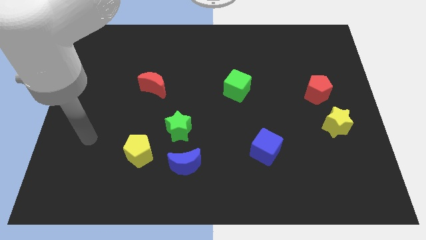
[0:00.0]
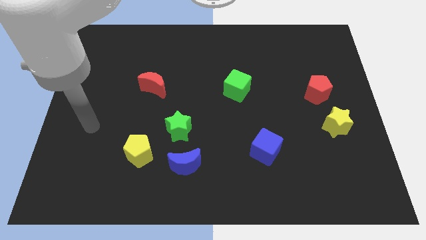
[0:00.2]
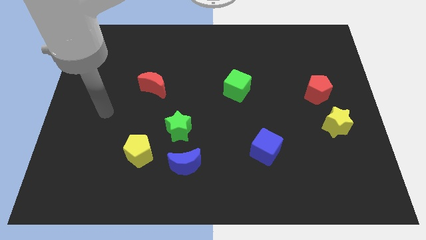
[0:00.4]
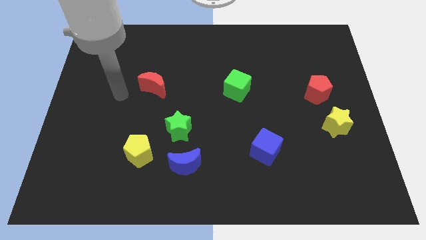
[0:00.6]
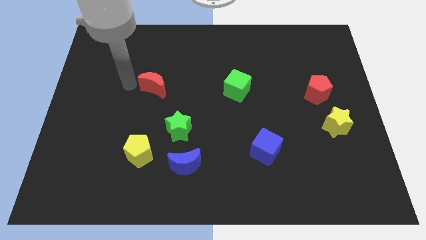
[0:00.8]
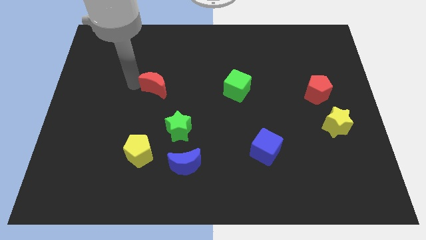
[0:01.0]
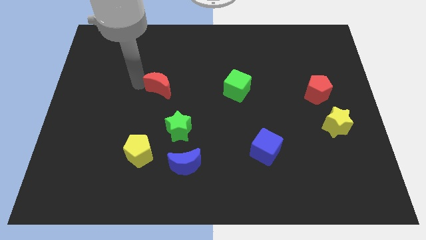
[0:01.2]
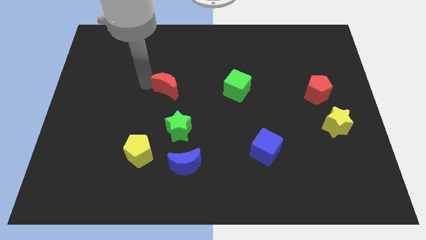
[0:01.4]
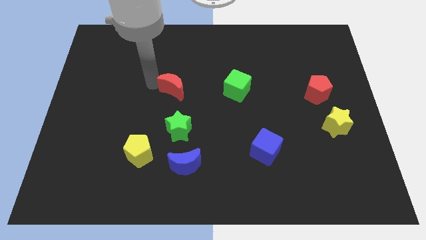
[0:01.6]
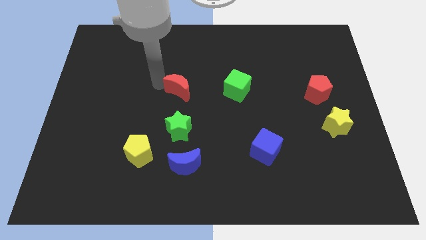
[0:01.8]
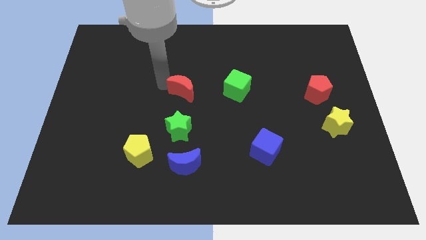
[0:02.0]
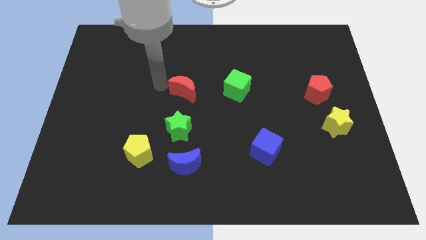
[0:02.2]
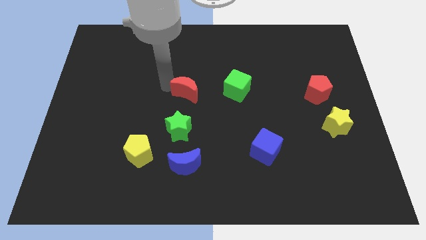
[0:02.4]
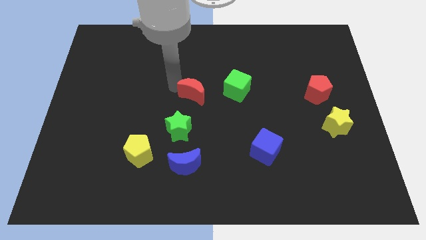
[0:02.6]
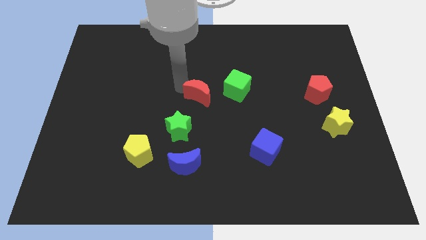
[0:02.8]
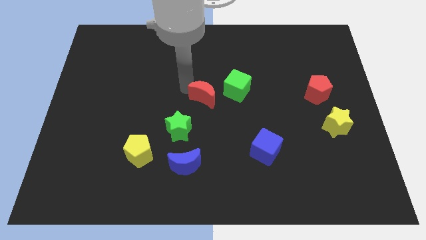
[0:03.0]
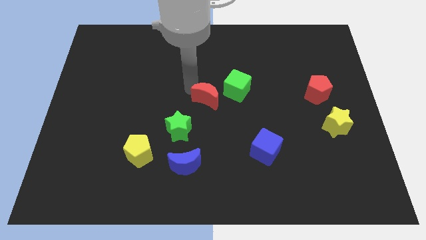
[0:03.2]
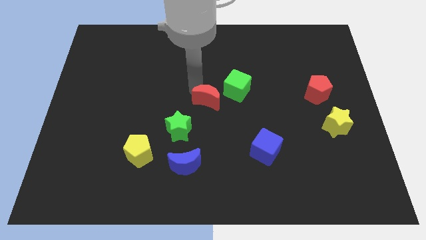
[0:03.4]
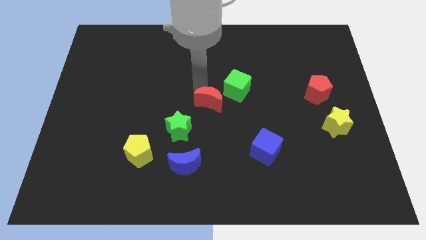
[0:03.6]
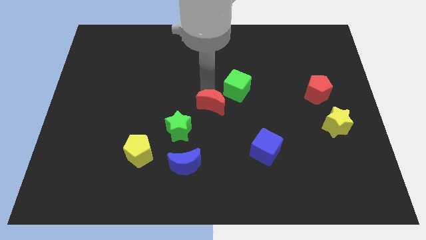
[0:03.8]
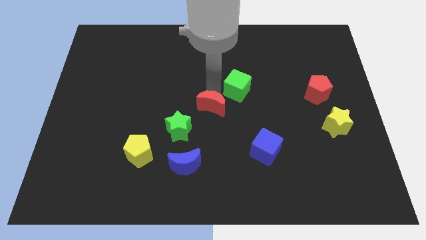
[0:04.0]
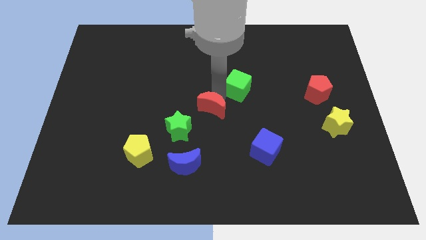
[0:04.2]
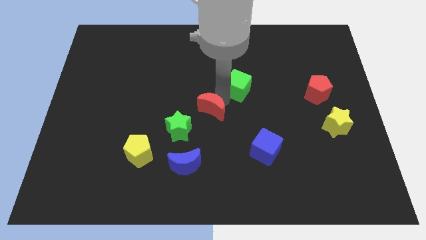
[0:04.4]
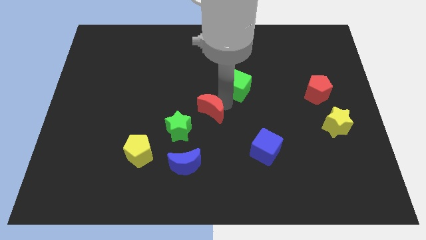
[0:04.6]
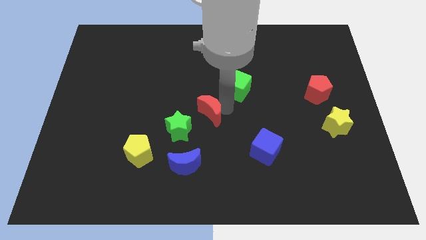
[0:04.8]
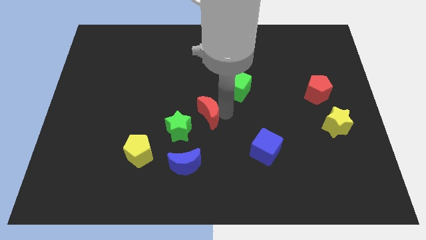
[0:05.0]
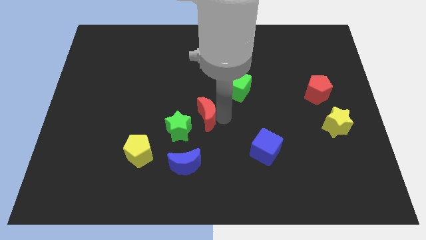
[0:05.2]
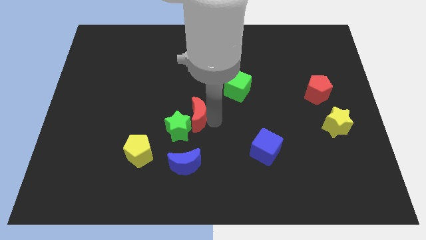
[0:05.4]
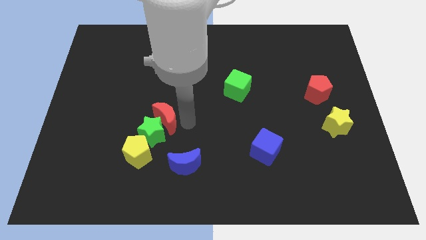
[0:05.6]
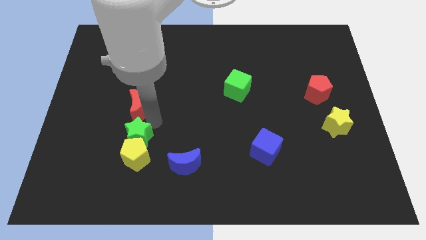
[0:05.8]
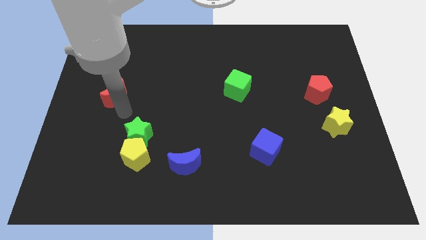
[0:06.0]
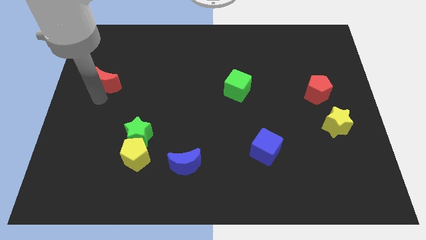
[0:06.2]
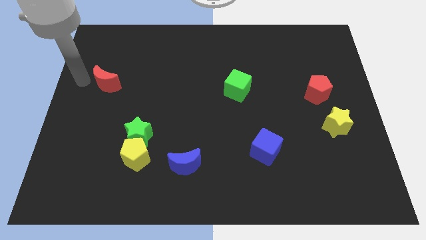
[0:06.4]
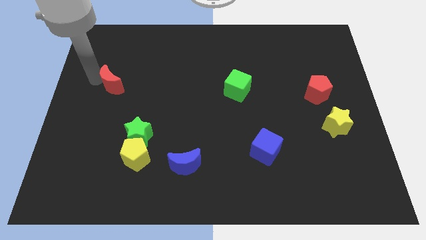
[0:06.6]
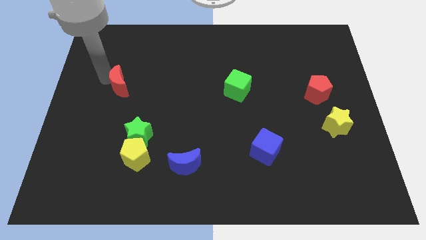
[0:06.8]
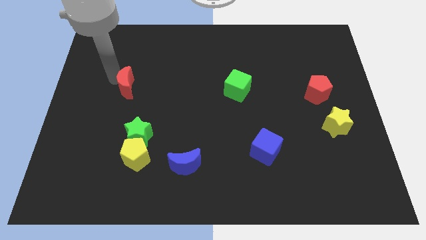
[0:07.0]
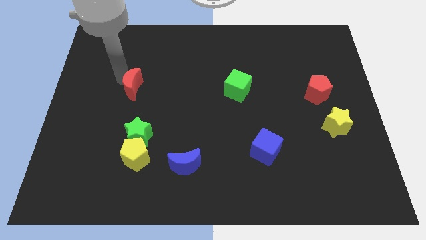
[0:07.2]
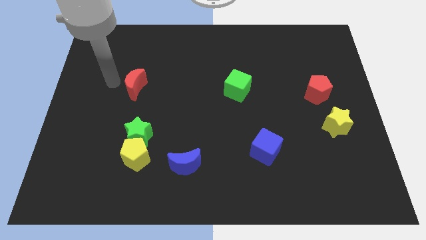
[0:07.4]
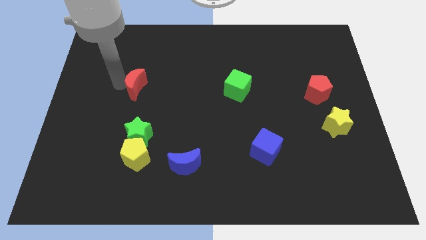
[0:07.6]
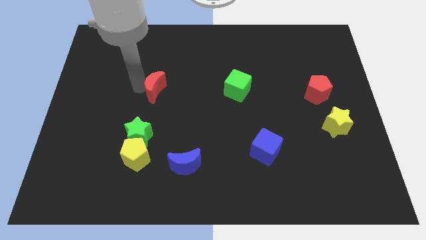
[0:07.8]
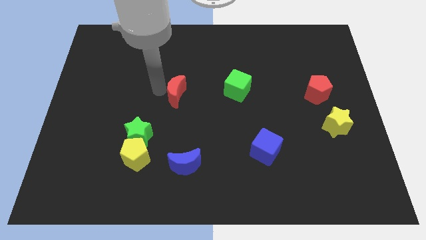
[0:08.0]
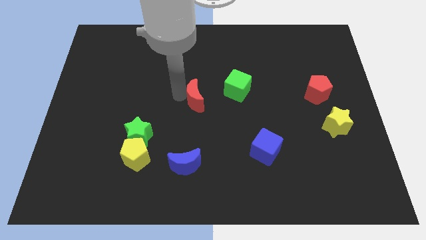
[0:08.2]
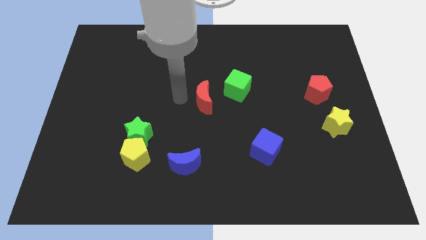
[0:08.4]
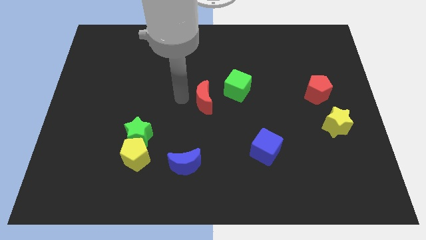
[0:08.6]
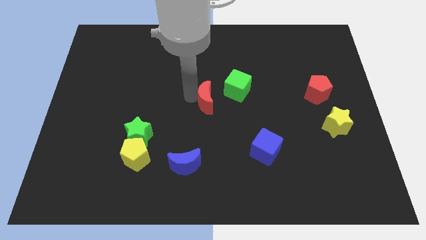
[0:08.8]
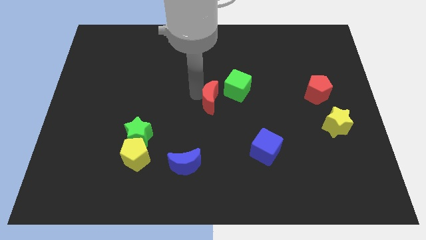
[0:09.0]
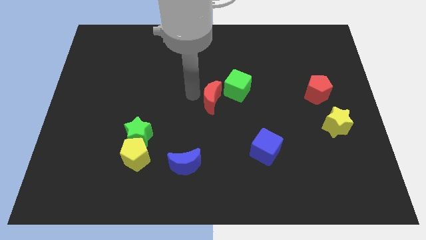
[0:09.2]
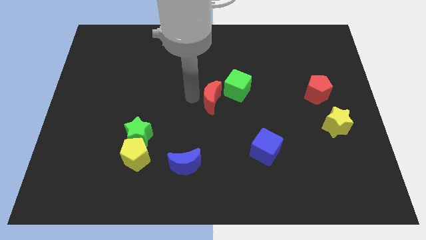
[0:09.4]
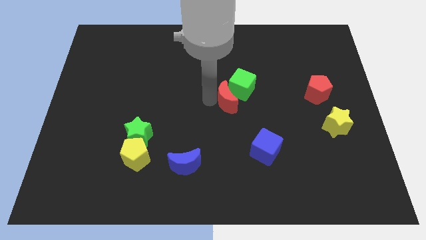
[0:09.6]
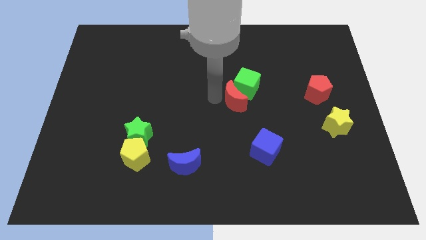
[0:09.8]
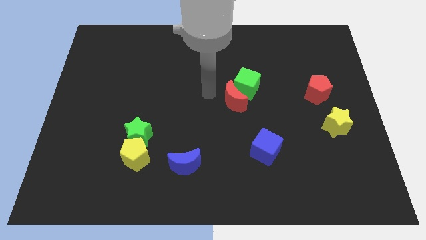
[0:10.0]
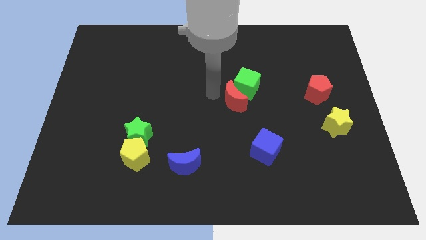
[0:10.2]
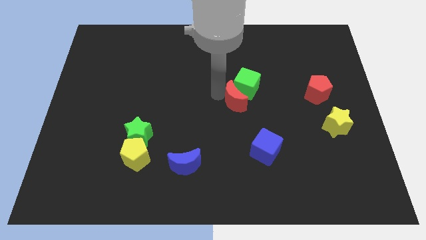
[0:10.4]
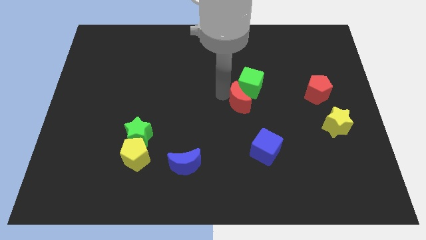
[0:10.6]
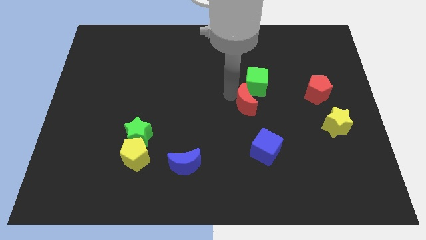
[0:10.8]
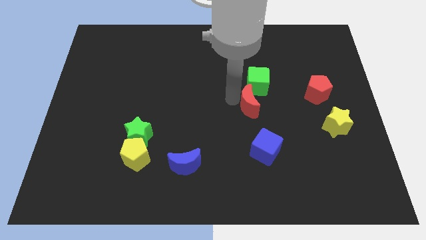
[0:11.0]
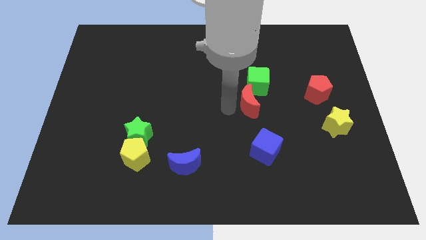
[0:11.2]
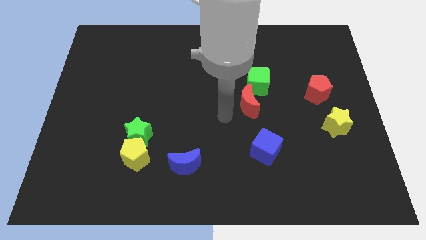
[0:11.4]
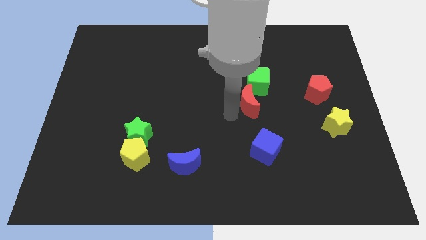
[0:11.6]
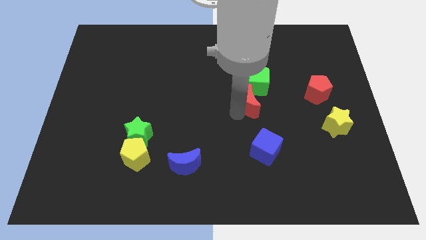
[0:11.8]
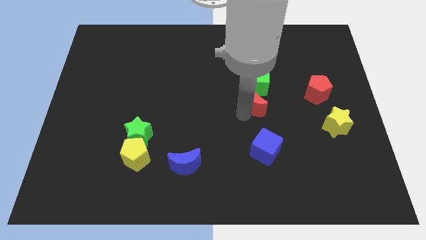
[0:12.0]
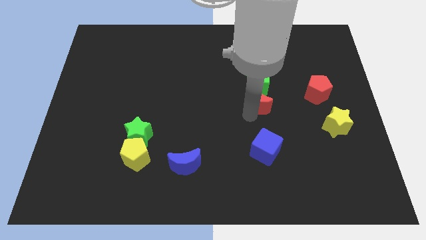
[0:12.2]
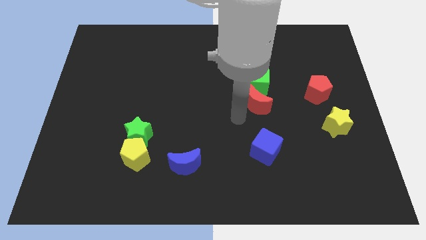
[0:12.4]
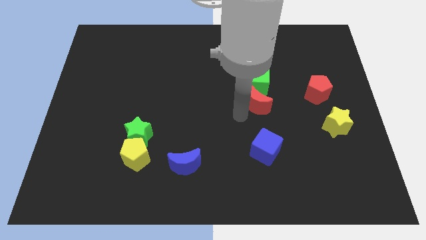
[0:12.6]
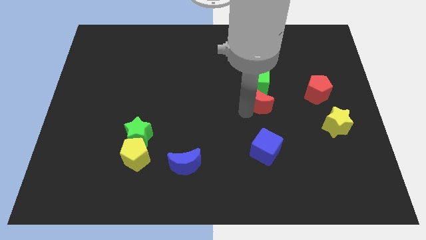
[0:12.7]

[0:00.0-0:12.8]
push the red moon left of the red pentagon

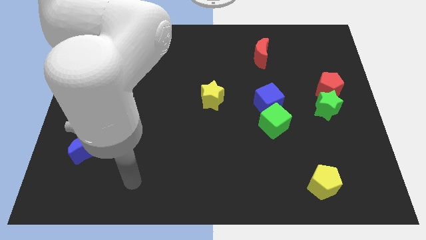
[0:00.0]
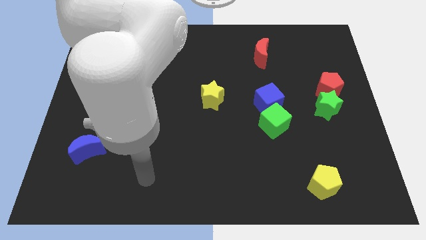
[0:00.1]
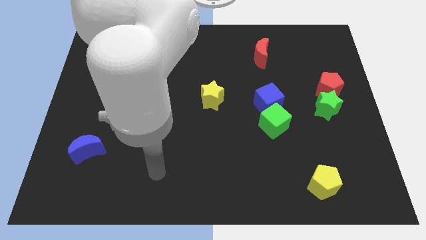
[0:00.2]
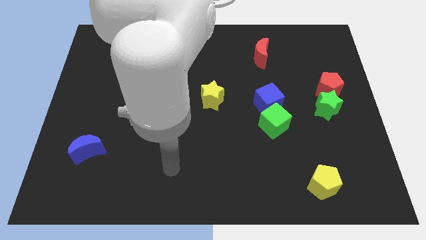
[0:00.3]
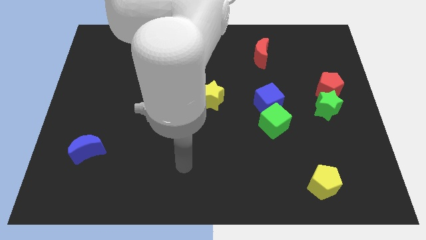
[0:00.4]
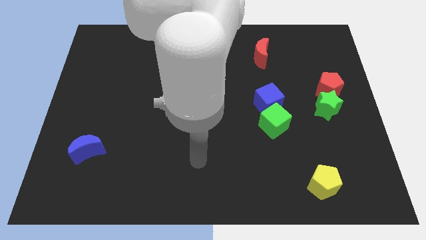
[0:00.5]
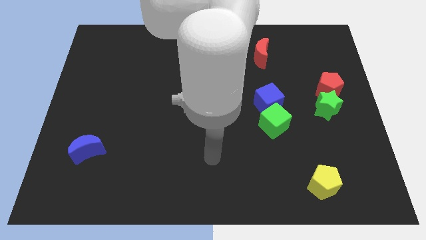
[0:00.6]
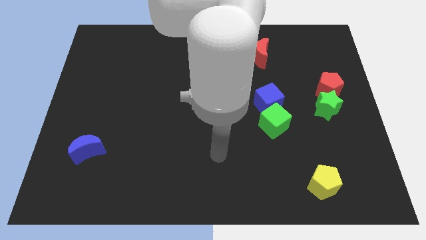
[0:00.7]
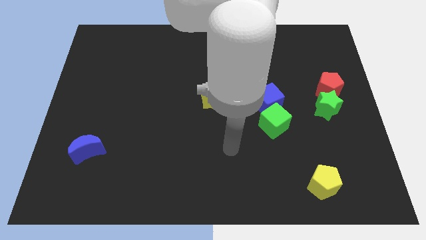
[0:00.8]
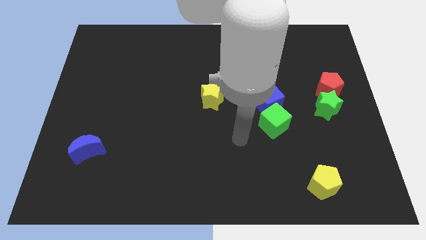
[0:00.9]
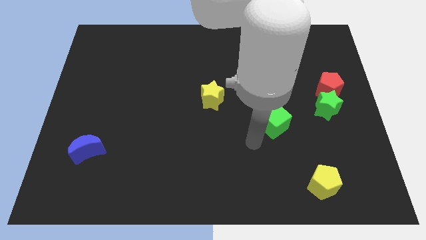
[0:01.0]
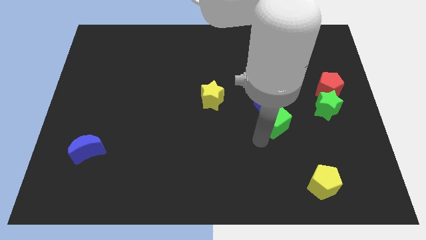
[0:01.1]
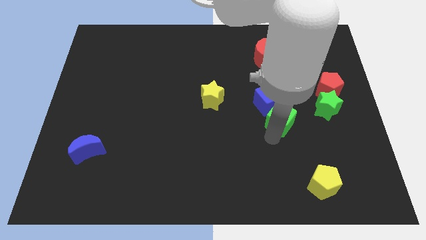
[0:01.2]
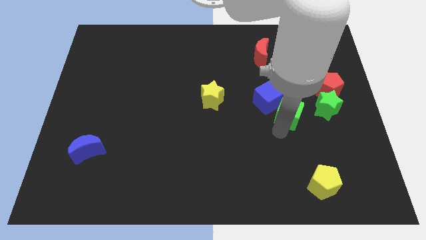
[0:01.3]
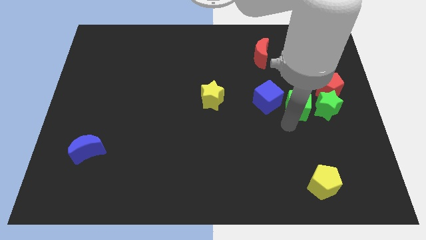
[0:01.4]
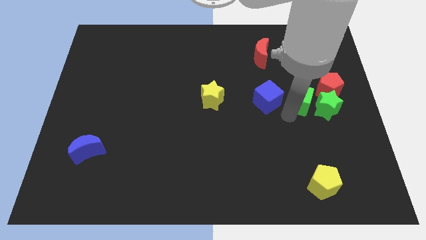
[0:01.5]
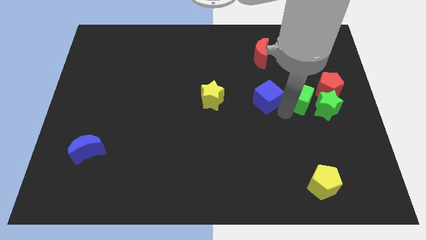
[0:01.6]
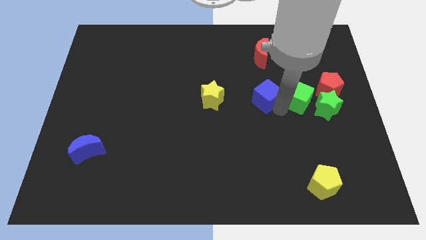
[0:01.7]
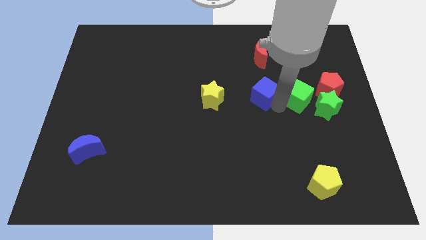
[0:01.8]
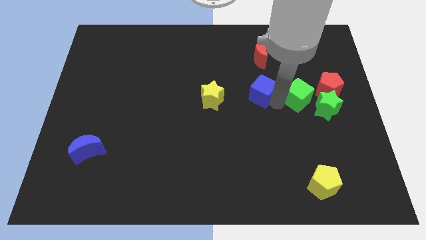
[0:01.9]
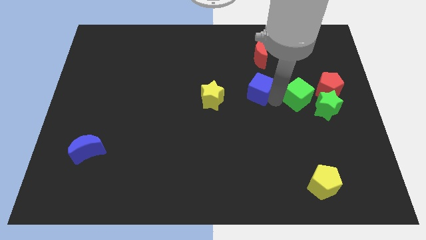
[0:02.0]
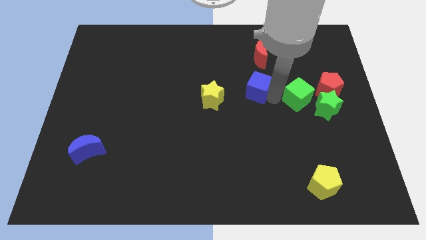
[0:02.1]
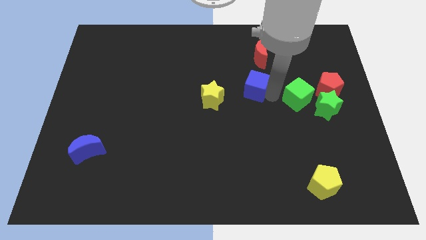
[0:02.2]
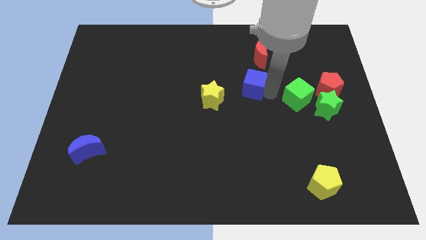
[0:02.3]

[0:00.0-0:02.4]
move the blue cube to the top right side of the yellow star
